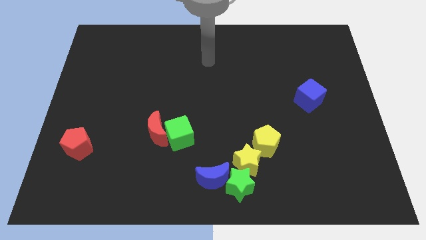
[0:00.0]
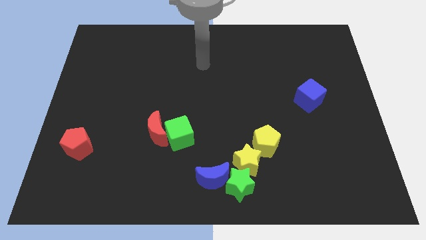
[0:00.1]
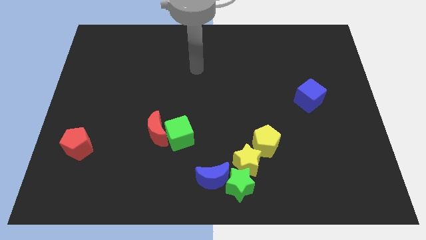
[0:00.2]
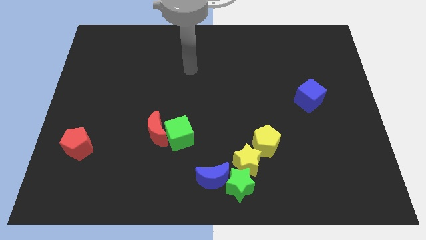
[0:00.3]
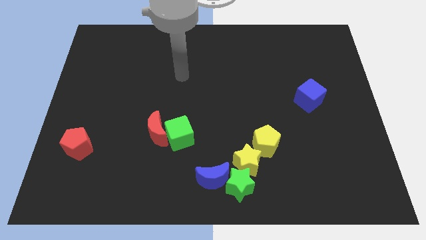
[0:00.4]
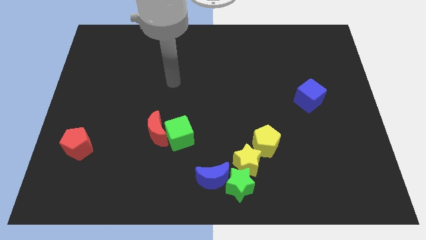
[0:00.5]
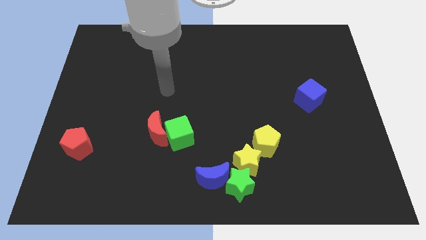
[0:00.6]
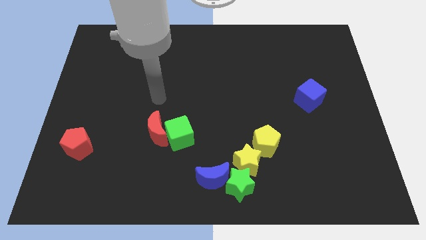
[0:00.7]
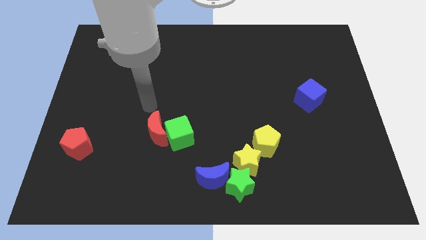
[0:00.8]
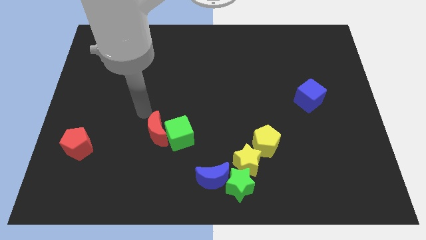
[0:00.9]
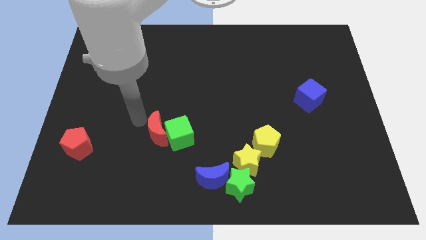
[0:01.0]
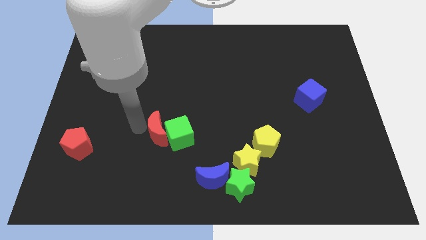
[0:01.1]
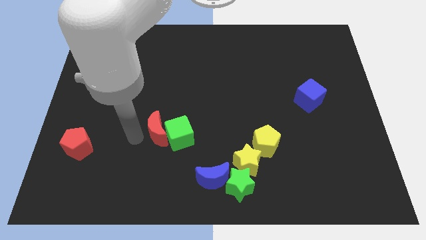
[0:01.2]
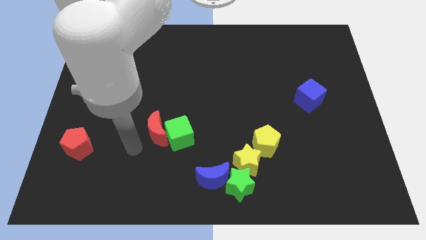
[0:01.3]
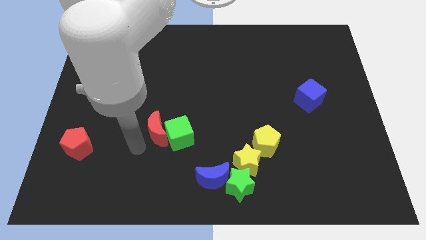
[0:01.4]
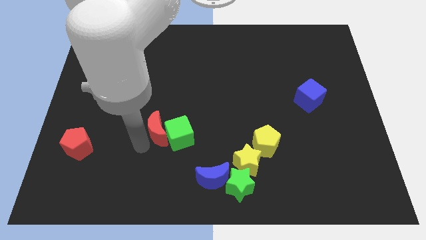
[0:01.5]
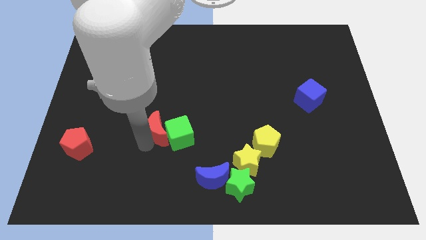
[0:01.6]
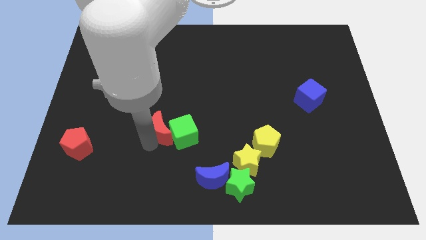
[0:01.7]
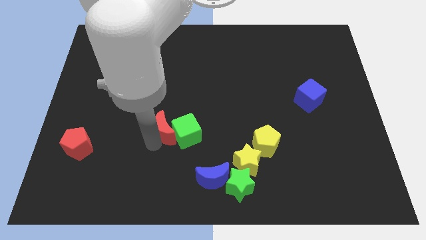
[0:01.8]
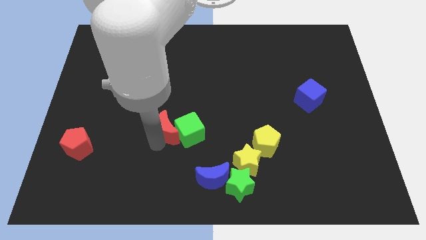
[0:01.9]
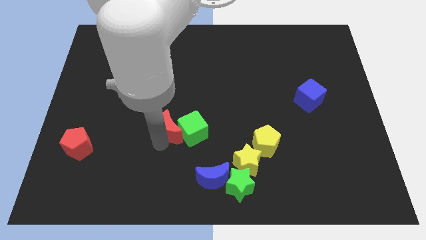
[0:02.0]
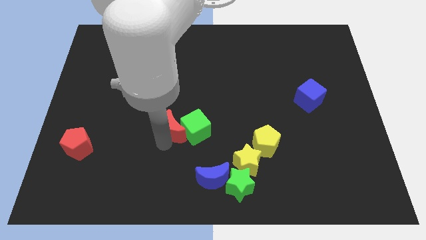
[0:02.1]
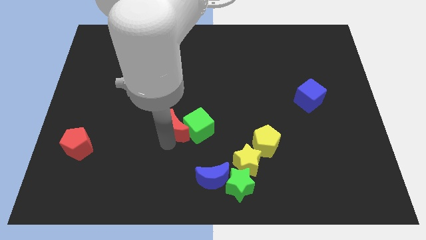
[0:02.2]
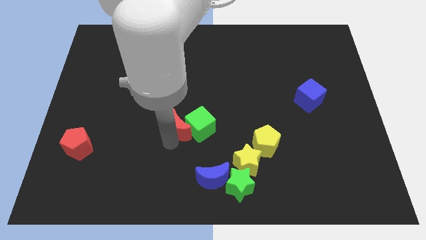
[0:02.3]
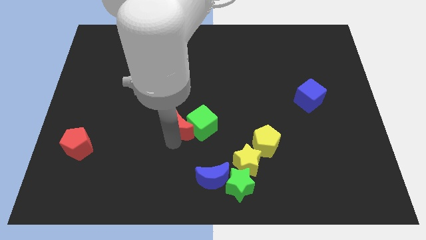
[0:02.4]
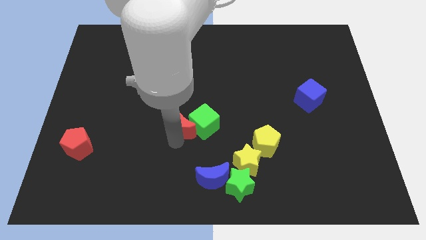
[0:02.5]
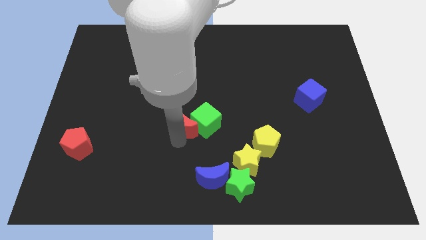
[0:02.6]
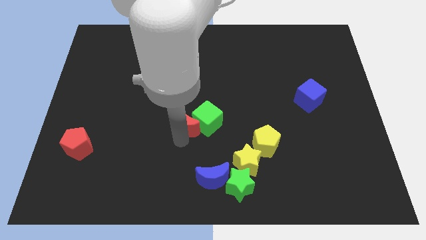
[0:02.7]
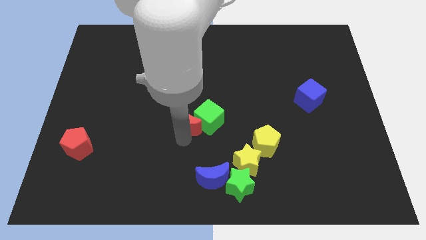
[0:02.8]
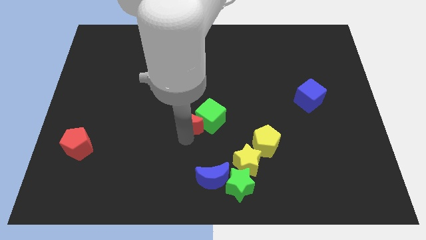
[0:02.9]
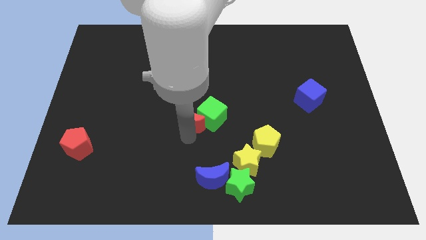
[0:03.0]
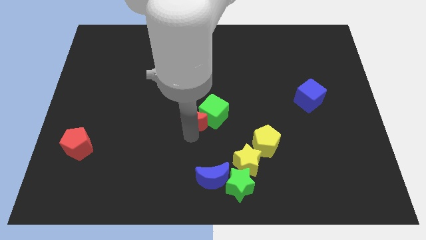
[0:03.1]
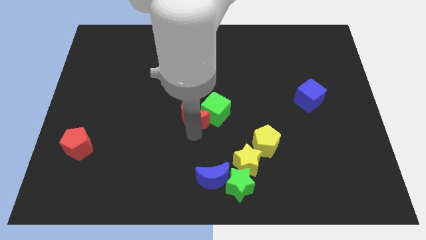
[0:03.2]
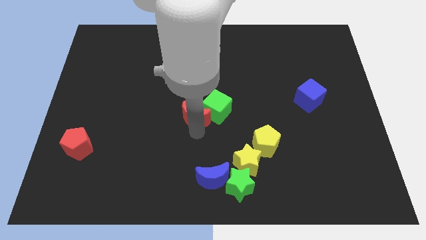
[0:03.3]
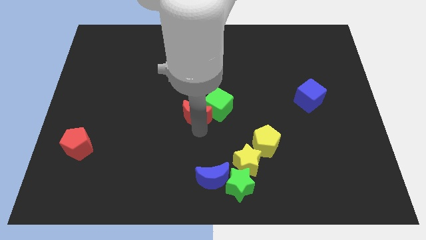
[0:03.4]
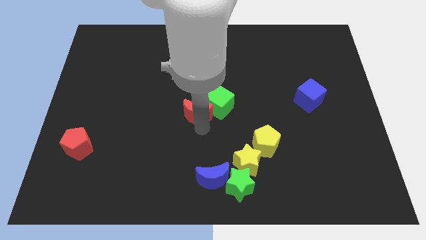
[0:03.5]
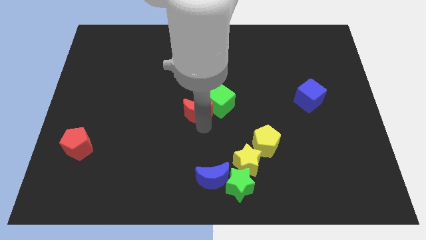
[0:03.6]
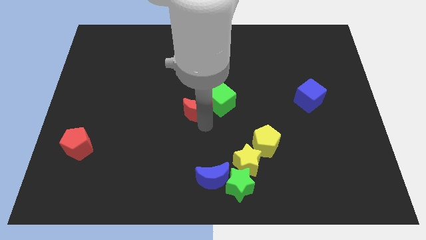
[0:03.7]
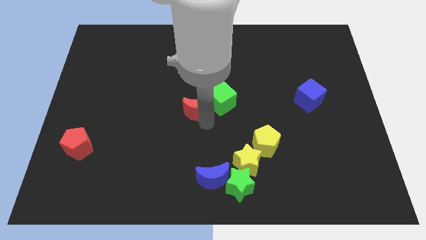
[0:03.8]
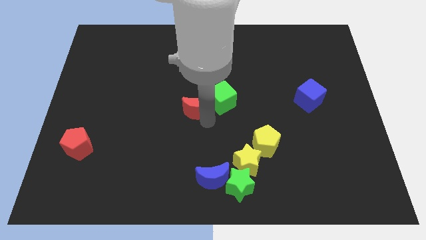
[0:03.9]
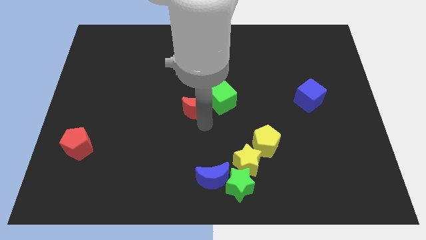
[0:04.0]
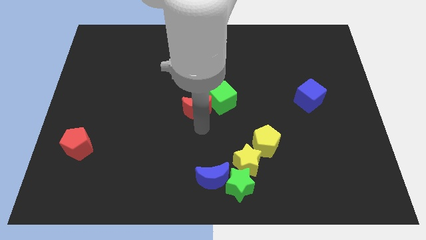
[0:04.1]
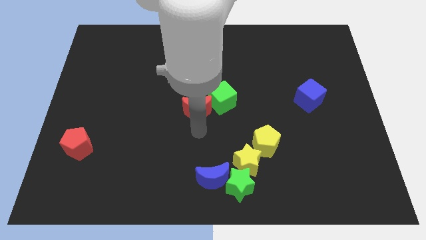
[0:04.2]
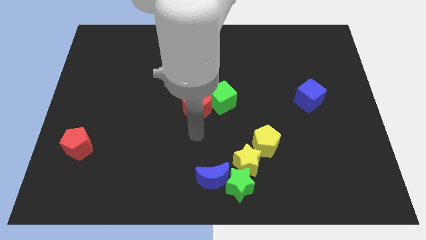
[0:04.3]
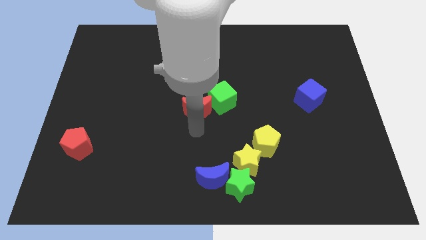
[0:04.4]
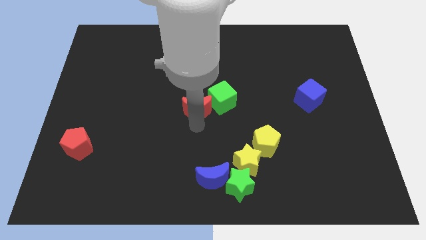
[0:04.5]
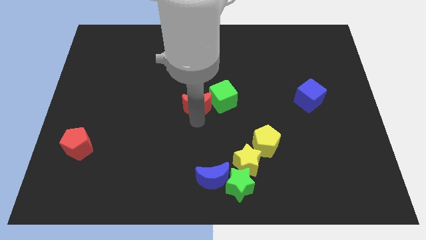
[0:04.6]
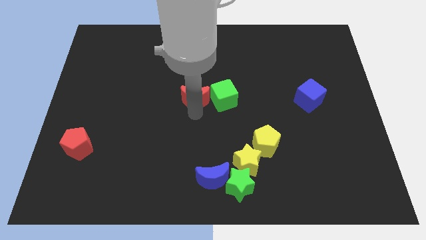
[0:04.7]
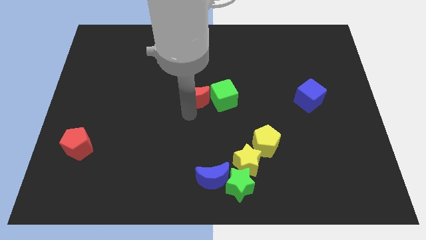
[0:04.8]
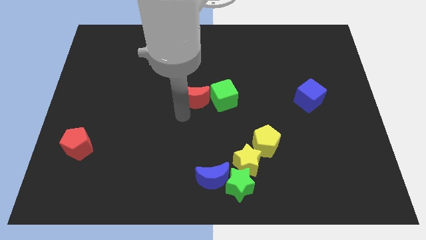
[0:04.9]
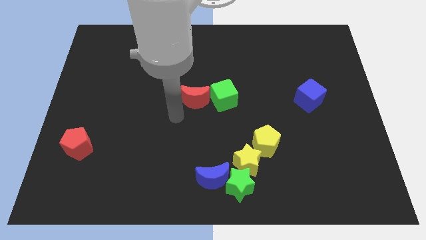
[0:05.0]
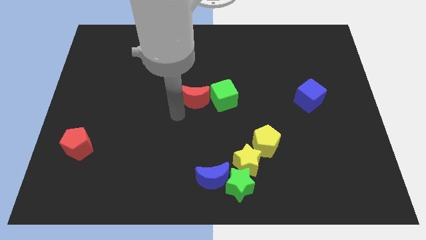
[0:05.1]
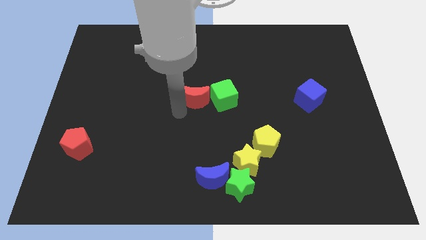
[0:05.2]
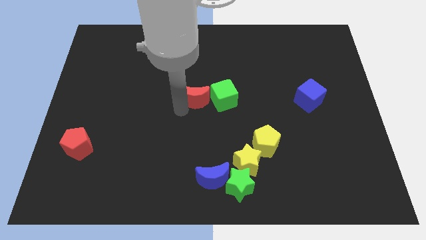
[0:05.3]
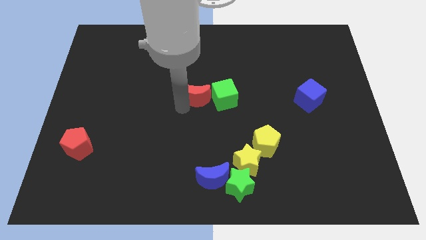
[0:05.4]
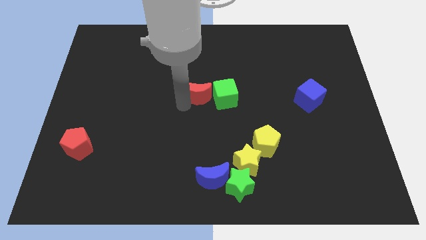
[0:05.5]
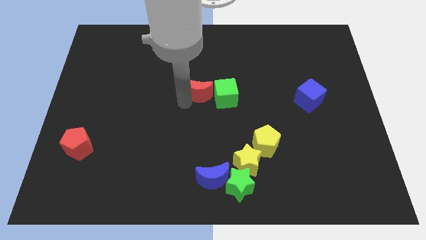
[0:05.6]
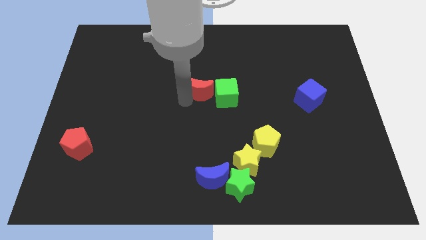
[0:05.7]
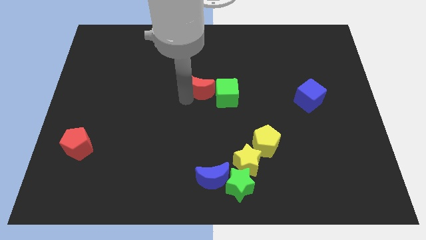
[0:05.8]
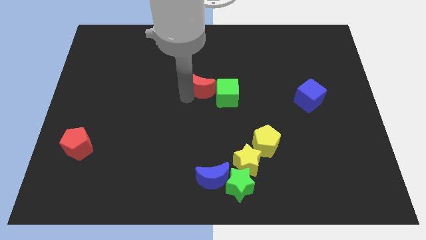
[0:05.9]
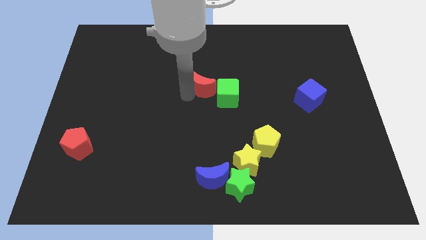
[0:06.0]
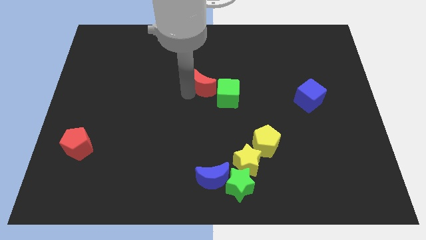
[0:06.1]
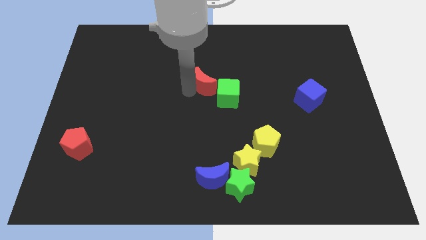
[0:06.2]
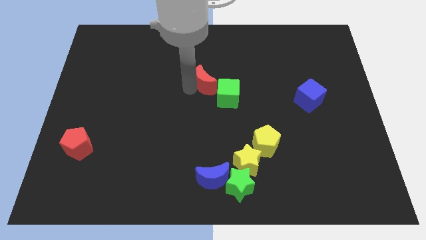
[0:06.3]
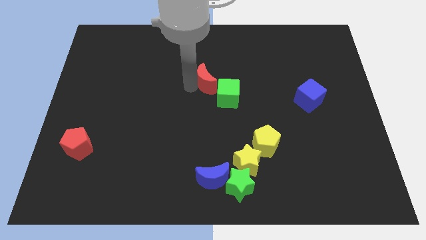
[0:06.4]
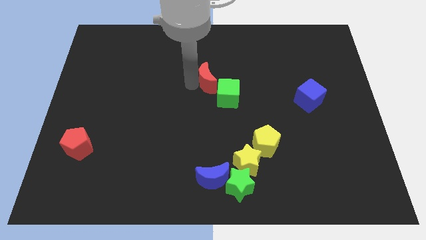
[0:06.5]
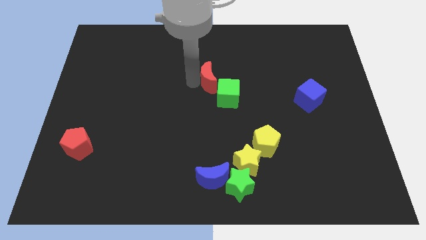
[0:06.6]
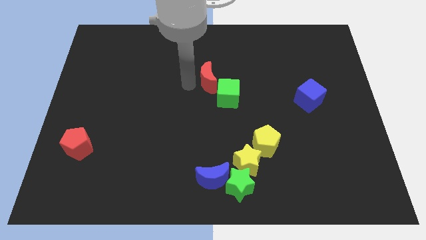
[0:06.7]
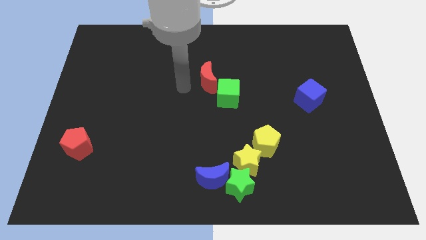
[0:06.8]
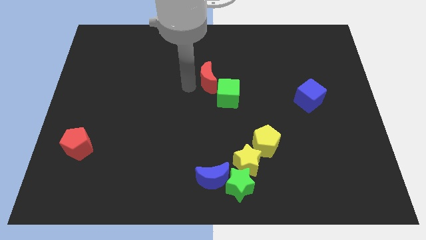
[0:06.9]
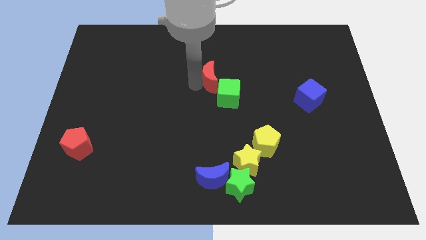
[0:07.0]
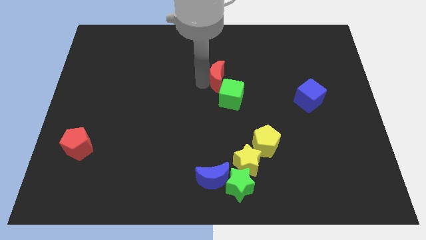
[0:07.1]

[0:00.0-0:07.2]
slide the red moon up and to the right

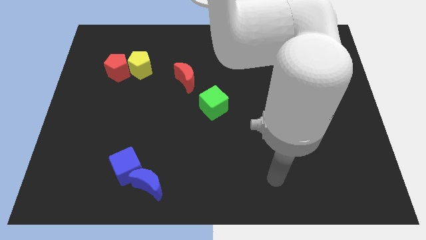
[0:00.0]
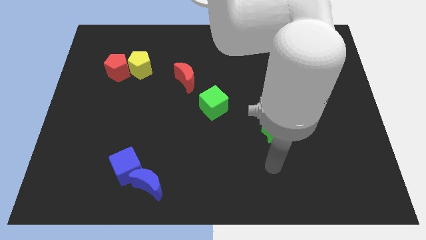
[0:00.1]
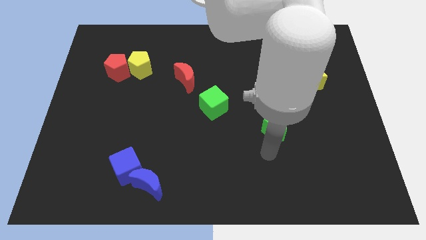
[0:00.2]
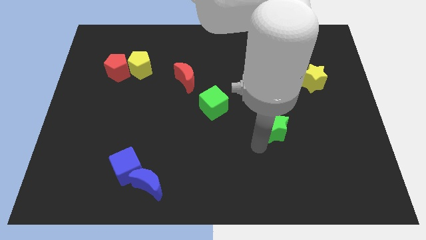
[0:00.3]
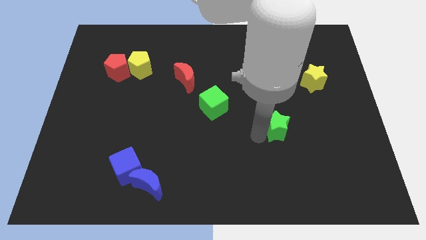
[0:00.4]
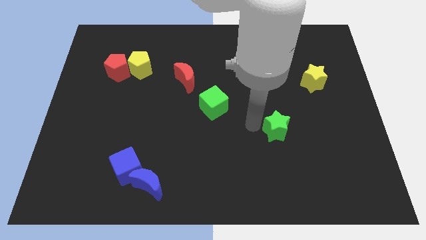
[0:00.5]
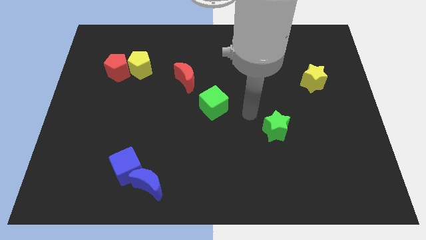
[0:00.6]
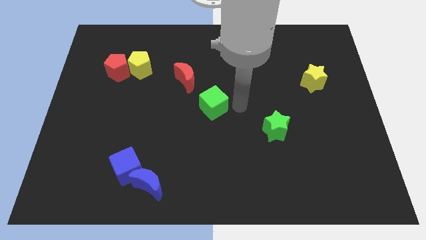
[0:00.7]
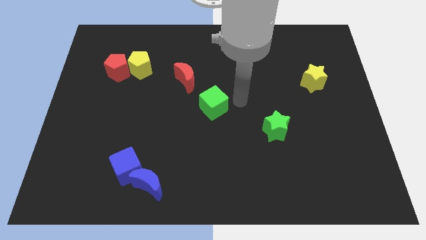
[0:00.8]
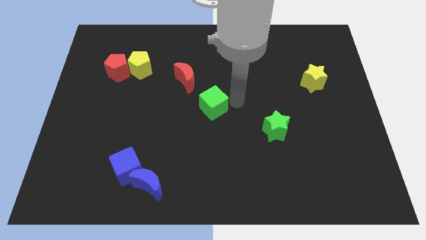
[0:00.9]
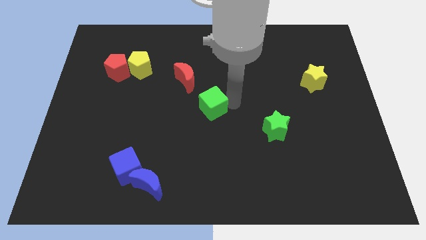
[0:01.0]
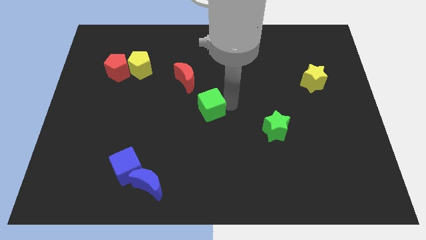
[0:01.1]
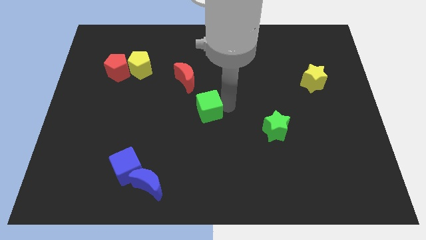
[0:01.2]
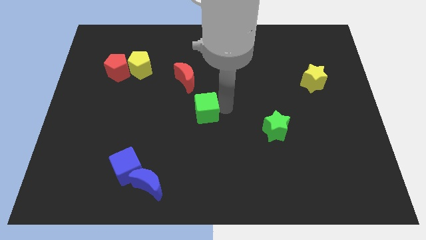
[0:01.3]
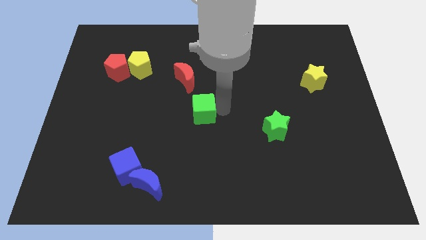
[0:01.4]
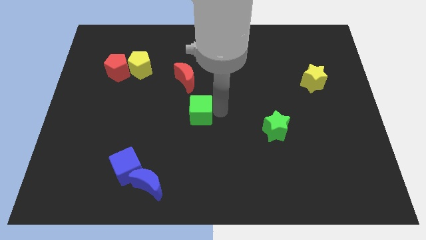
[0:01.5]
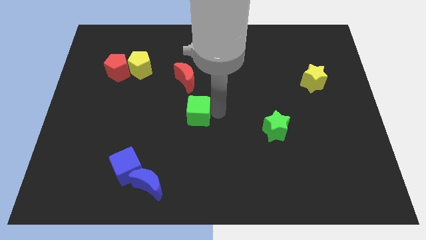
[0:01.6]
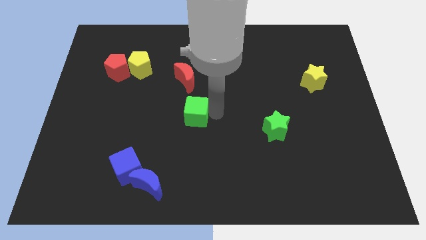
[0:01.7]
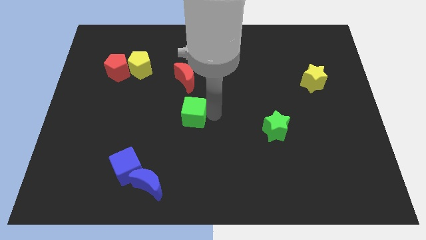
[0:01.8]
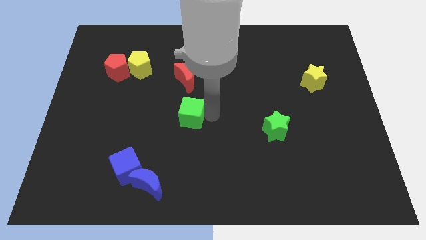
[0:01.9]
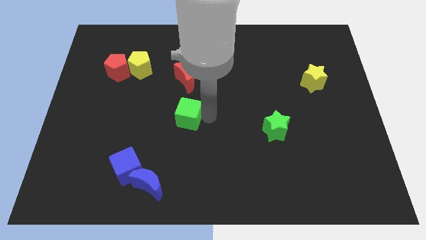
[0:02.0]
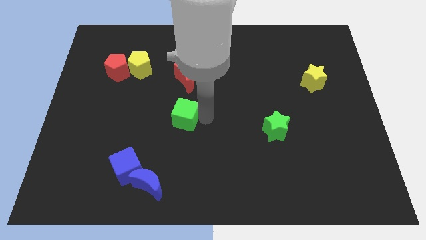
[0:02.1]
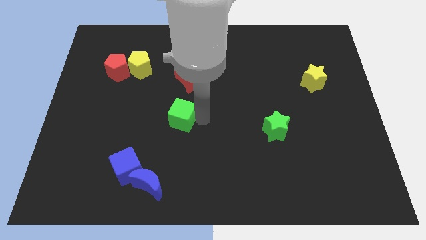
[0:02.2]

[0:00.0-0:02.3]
slide the green cube a bit left
